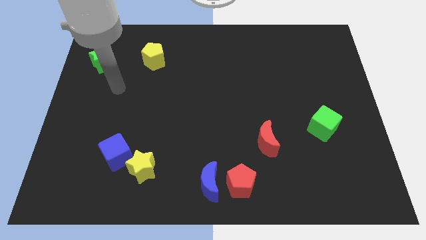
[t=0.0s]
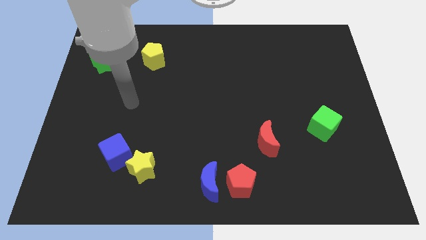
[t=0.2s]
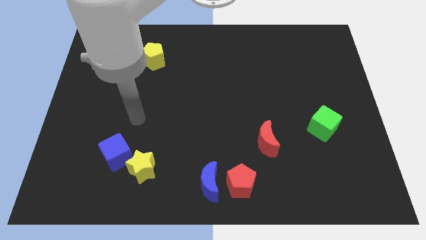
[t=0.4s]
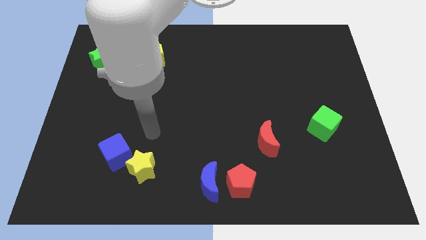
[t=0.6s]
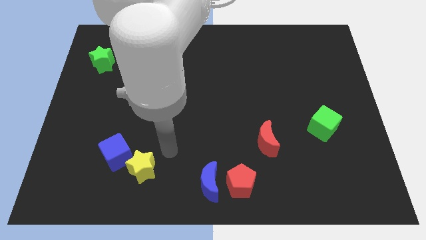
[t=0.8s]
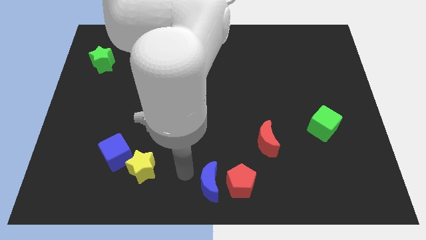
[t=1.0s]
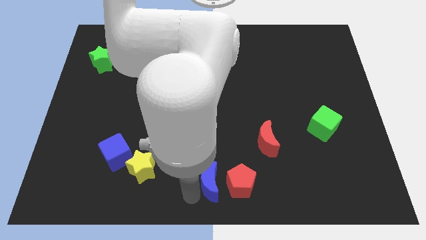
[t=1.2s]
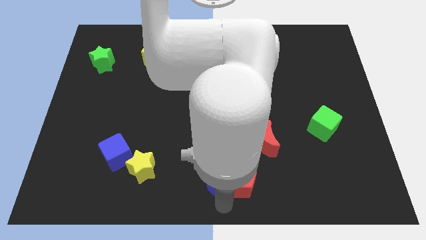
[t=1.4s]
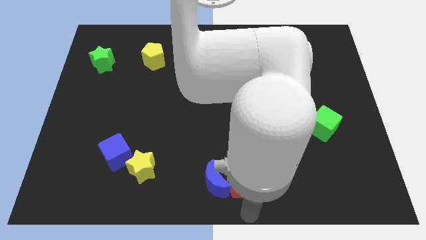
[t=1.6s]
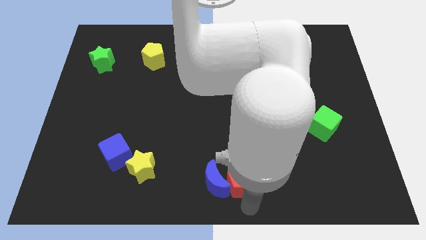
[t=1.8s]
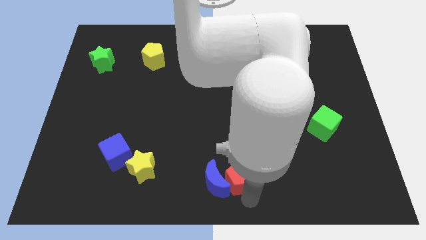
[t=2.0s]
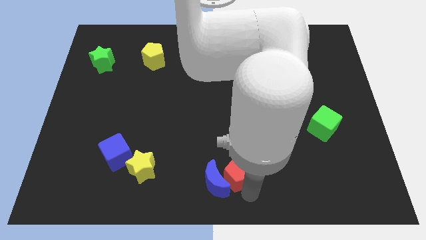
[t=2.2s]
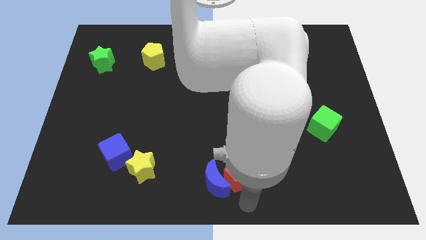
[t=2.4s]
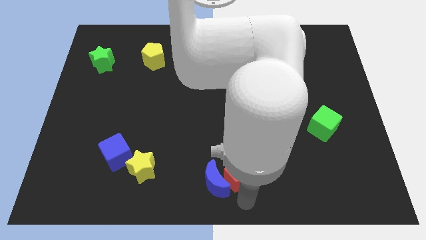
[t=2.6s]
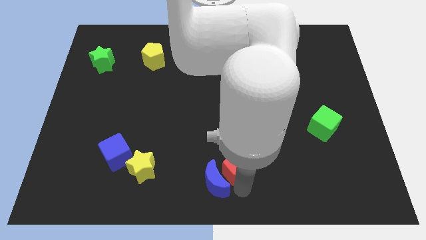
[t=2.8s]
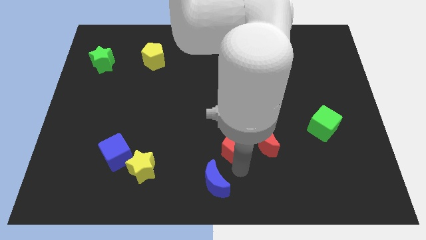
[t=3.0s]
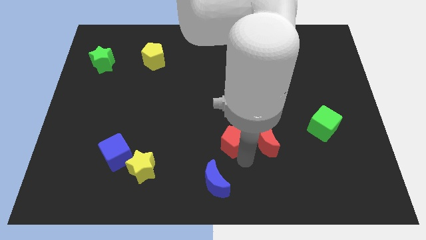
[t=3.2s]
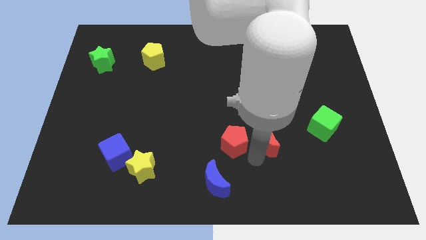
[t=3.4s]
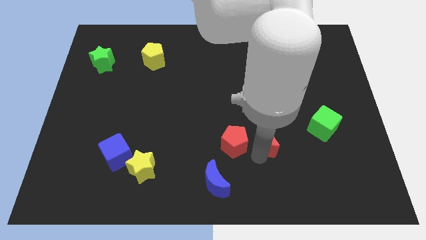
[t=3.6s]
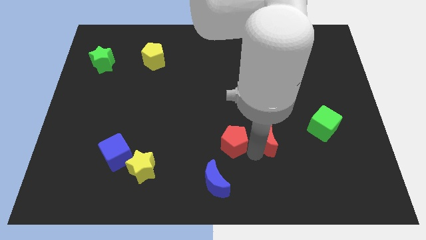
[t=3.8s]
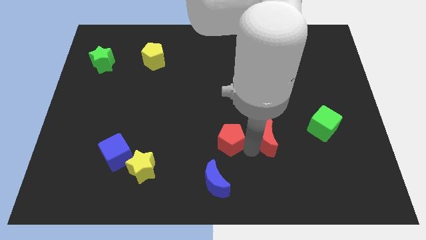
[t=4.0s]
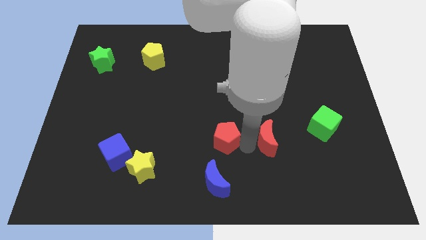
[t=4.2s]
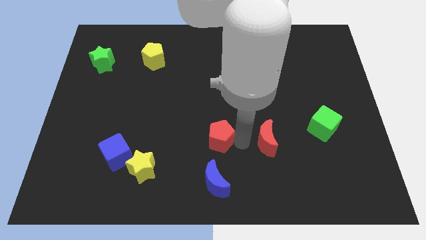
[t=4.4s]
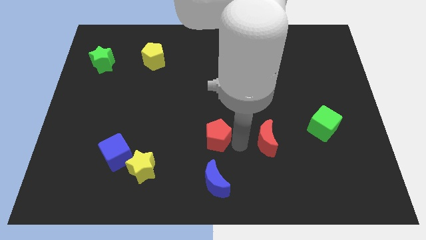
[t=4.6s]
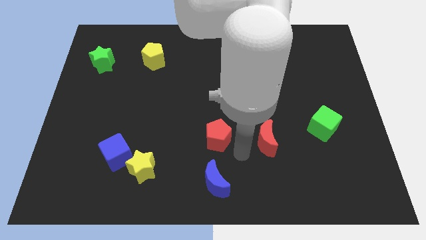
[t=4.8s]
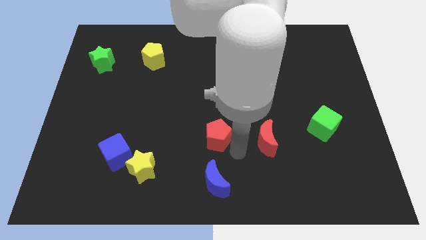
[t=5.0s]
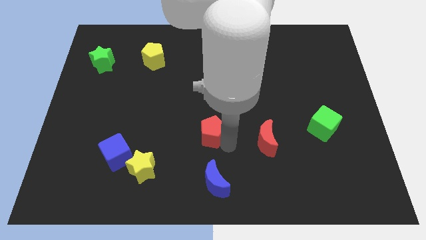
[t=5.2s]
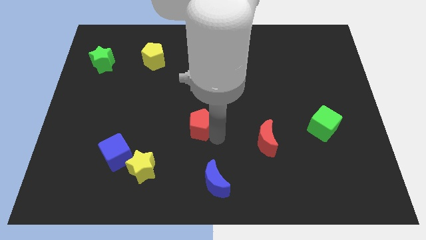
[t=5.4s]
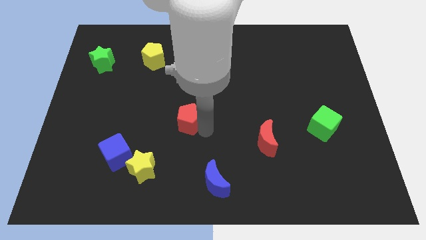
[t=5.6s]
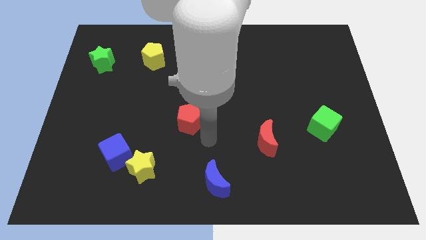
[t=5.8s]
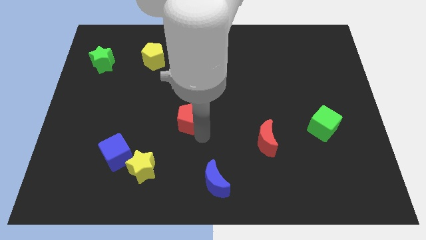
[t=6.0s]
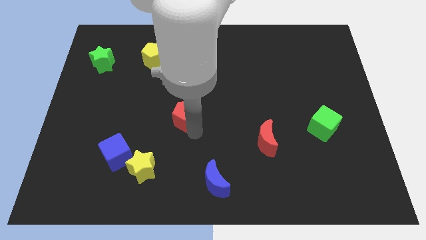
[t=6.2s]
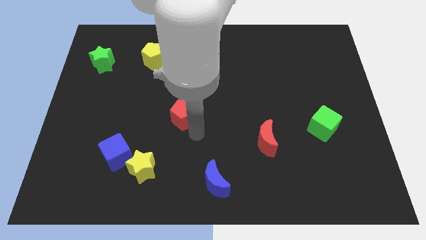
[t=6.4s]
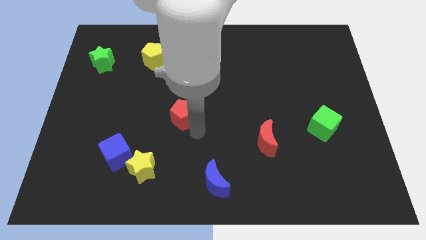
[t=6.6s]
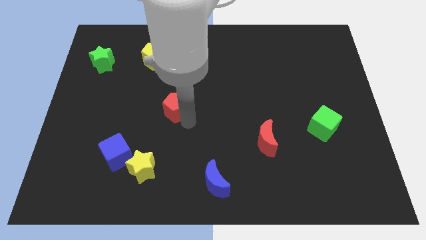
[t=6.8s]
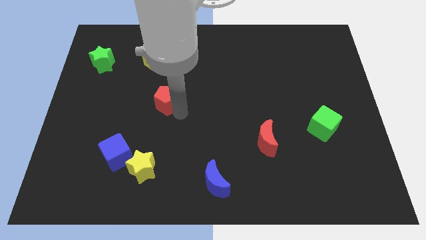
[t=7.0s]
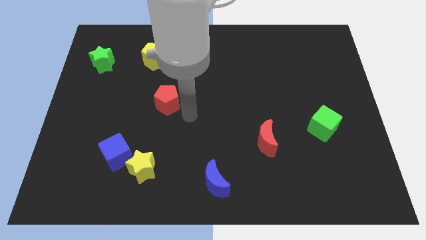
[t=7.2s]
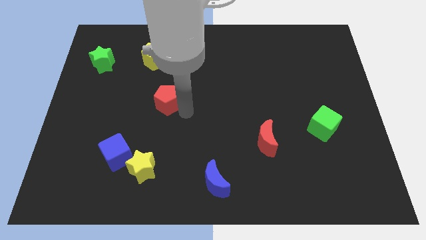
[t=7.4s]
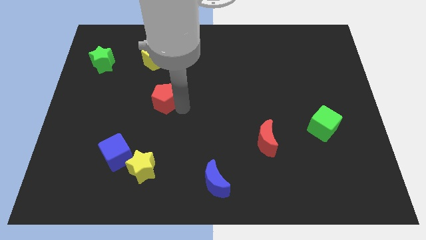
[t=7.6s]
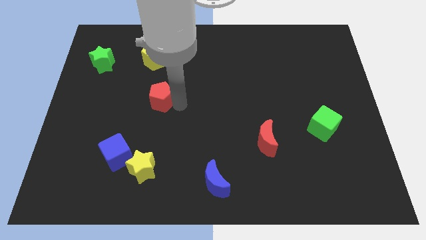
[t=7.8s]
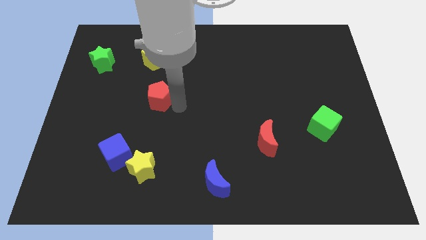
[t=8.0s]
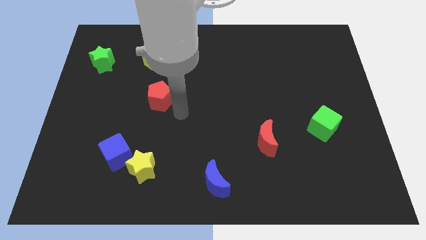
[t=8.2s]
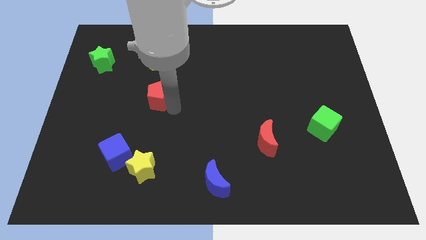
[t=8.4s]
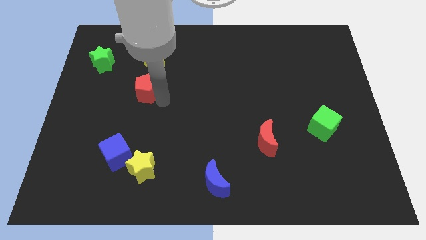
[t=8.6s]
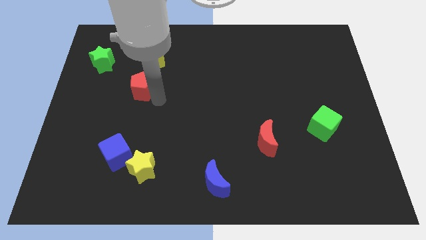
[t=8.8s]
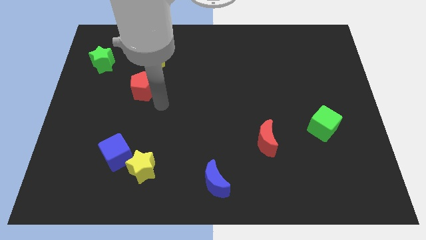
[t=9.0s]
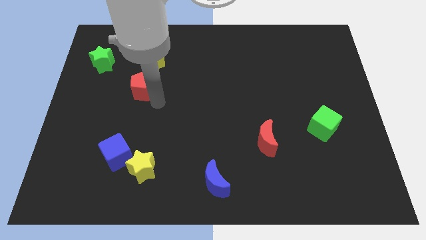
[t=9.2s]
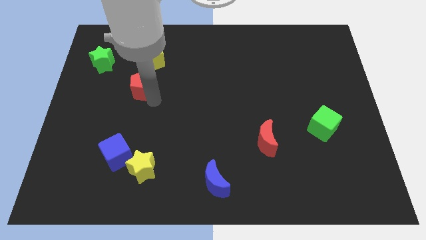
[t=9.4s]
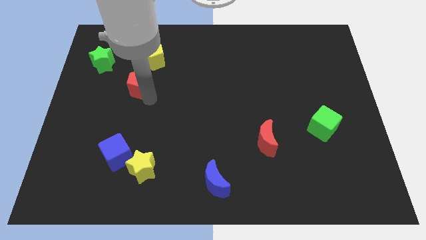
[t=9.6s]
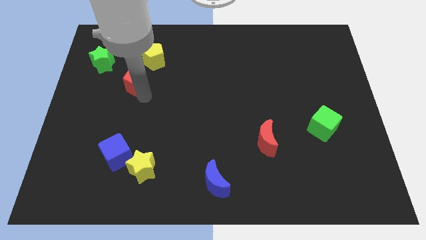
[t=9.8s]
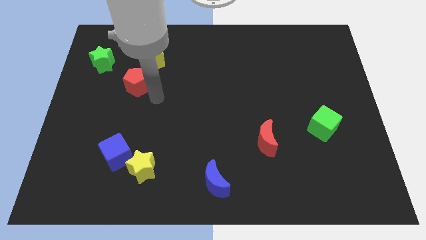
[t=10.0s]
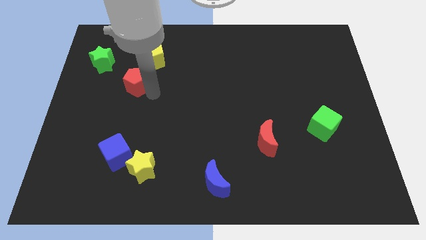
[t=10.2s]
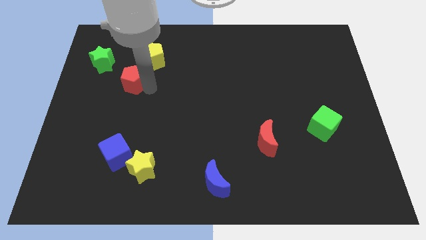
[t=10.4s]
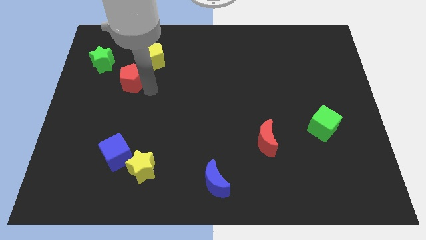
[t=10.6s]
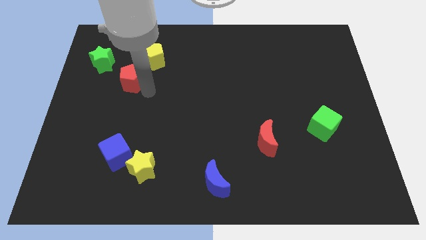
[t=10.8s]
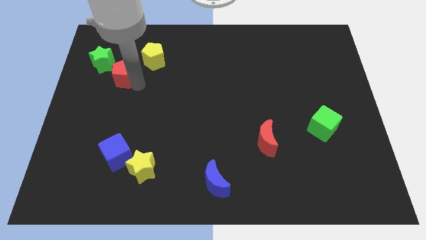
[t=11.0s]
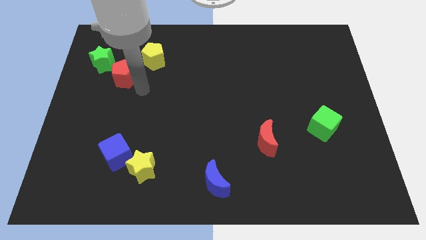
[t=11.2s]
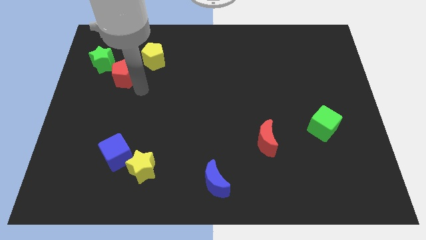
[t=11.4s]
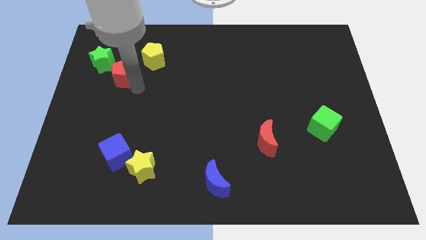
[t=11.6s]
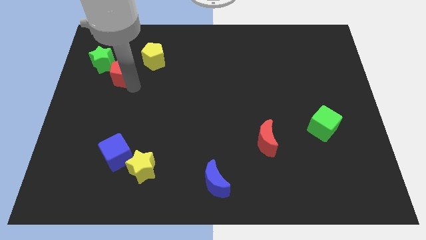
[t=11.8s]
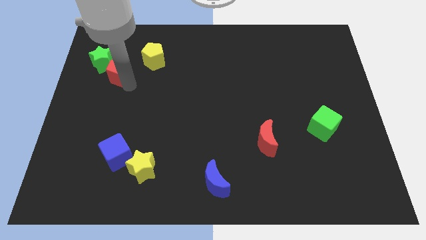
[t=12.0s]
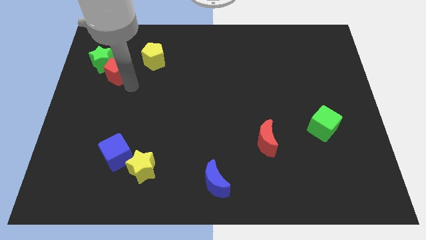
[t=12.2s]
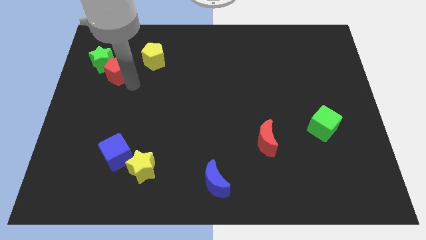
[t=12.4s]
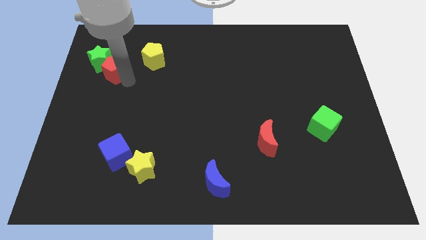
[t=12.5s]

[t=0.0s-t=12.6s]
move the red pentagon to the green star
